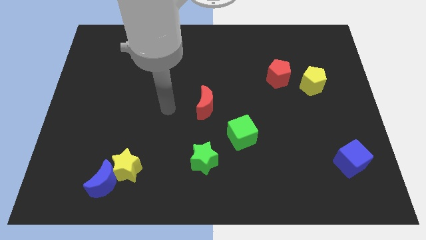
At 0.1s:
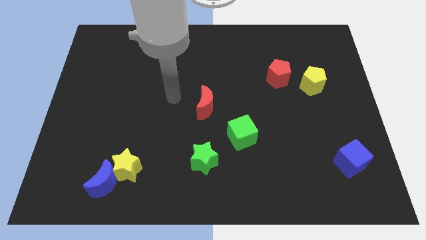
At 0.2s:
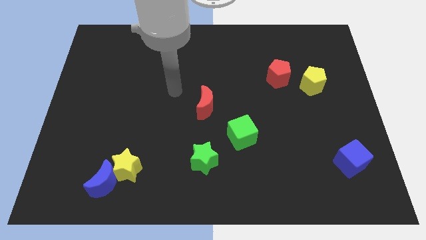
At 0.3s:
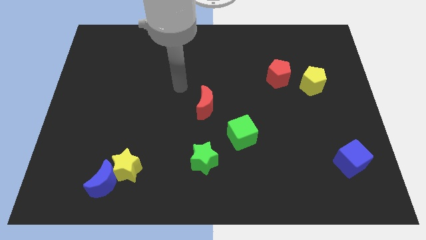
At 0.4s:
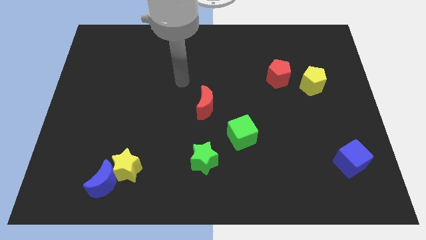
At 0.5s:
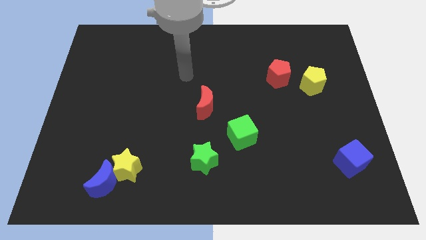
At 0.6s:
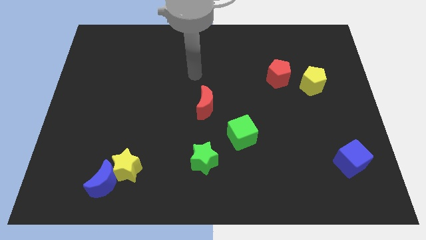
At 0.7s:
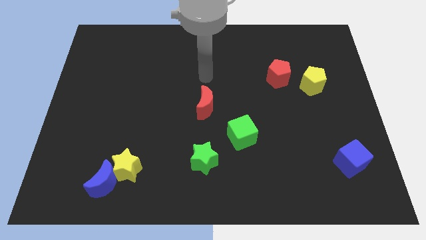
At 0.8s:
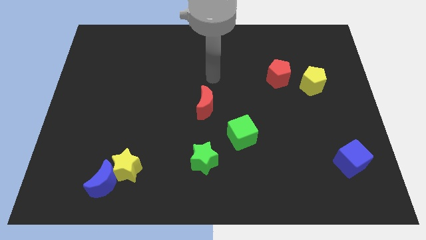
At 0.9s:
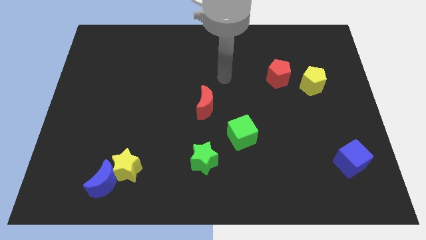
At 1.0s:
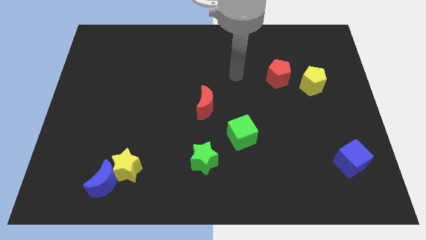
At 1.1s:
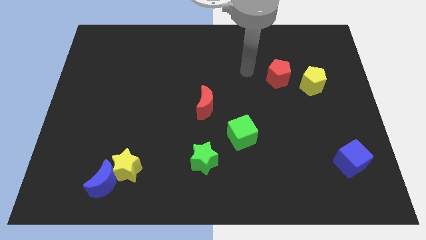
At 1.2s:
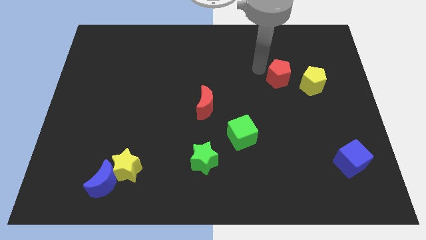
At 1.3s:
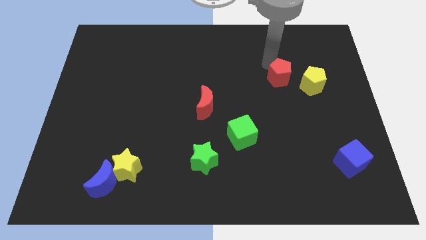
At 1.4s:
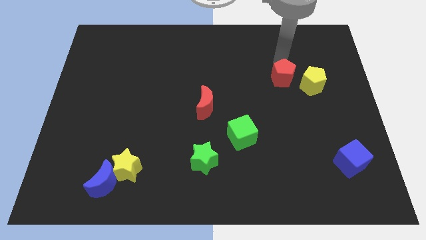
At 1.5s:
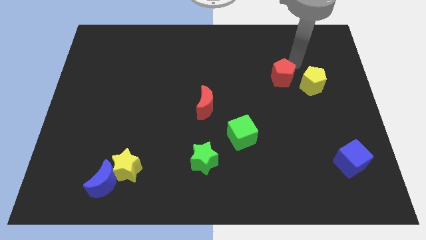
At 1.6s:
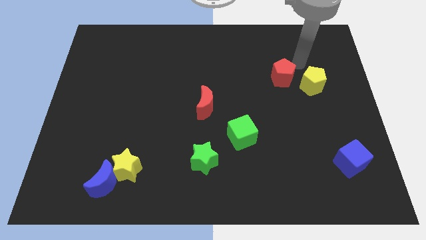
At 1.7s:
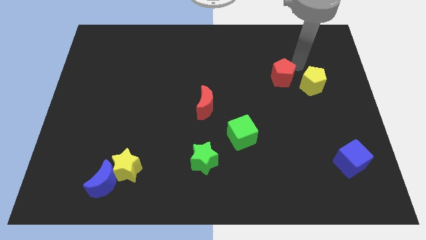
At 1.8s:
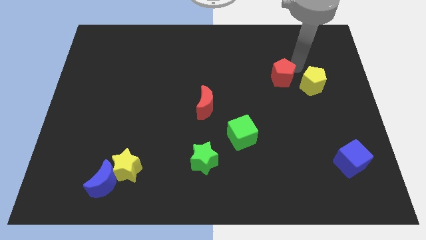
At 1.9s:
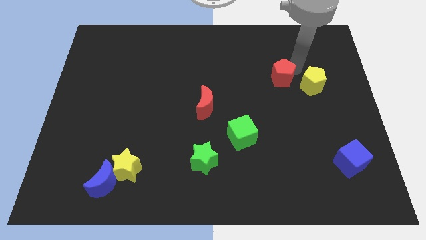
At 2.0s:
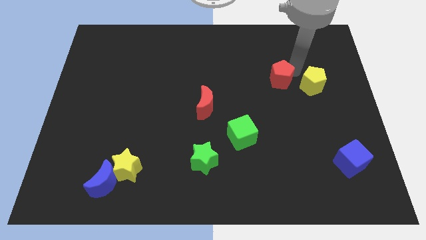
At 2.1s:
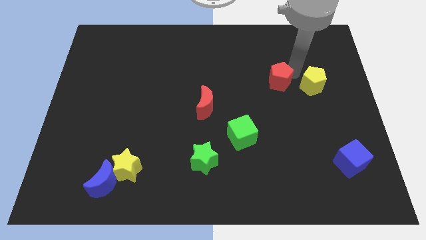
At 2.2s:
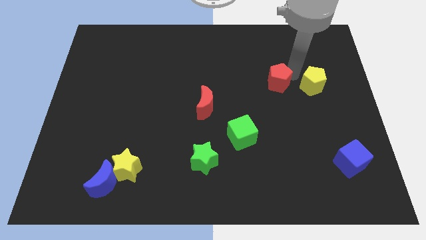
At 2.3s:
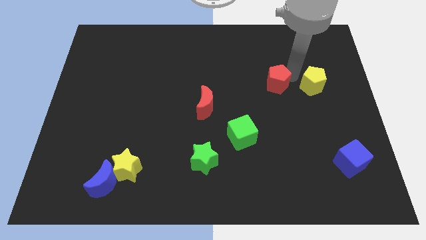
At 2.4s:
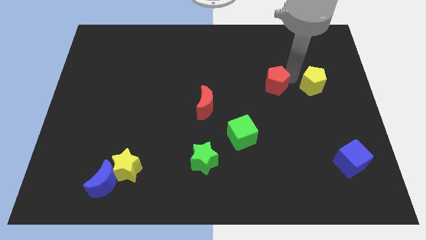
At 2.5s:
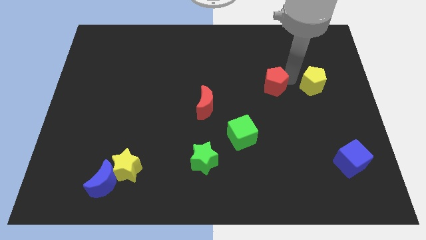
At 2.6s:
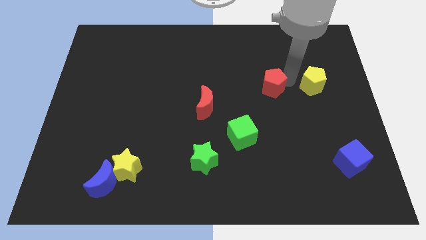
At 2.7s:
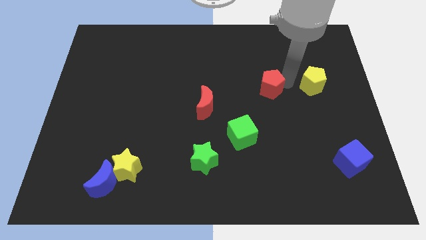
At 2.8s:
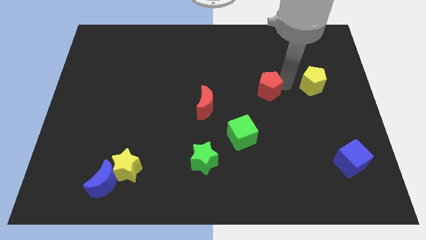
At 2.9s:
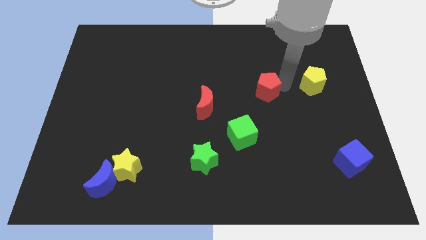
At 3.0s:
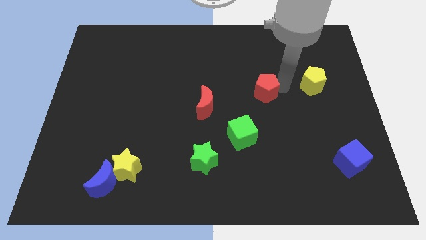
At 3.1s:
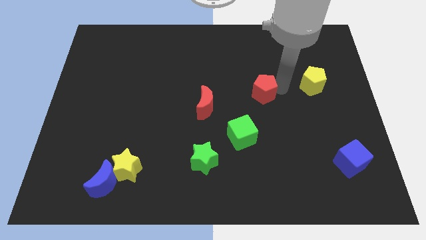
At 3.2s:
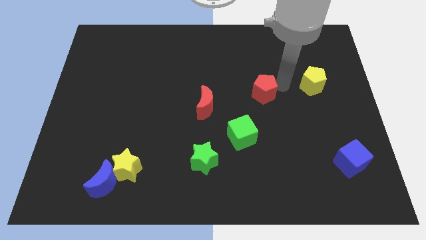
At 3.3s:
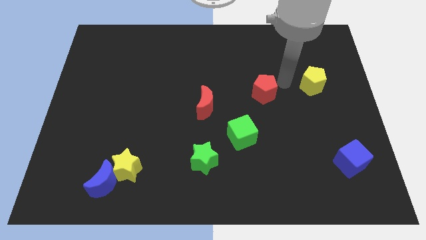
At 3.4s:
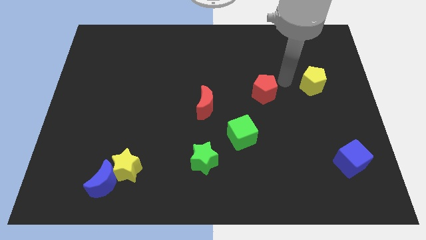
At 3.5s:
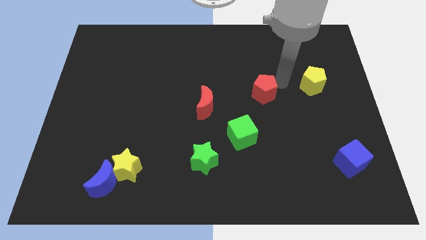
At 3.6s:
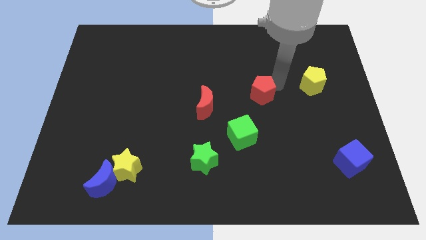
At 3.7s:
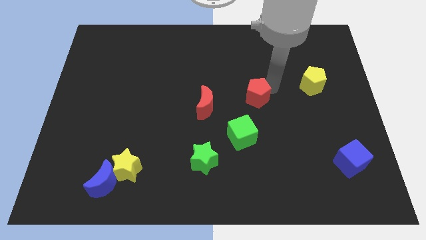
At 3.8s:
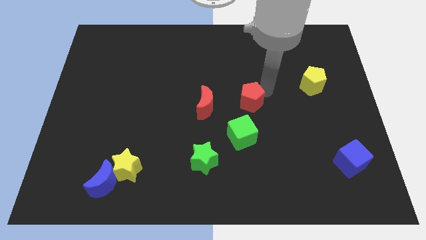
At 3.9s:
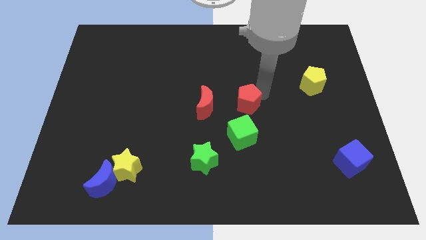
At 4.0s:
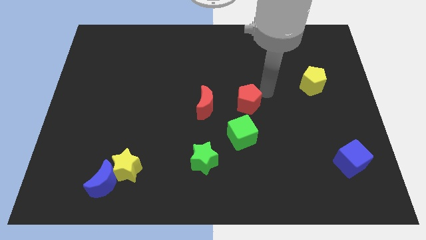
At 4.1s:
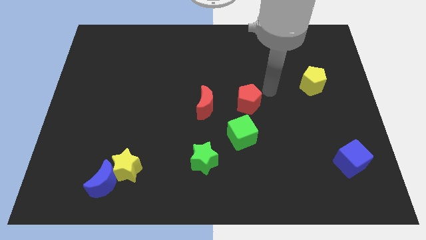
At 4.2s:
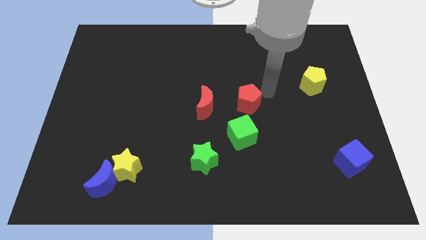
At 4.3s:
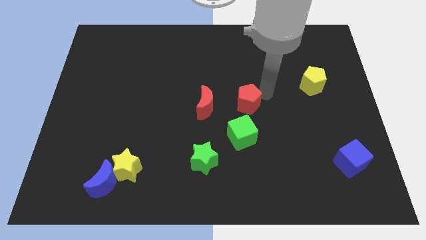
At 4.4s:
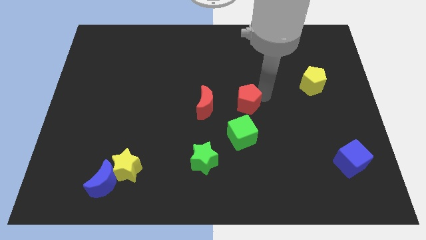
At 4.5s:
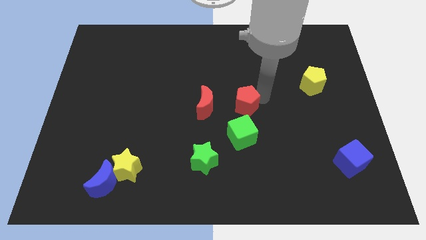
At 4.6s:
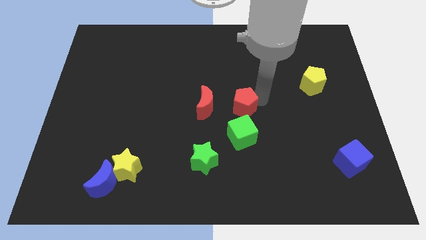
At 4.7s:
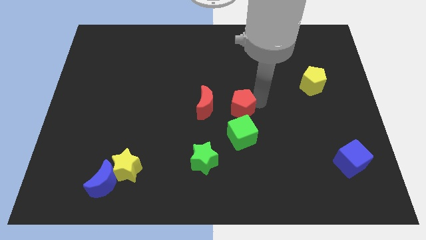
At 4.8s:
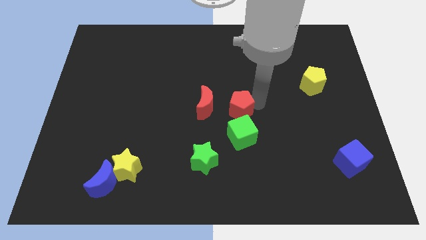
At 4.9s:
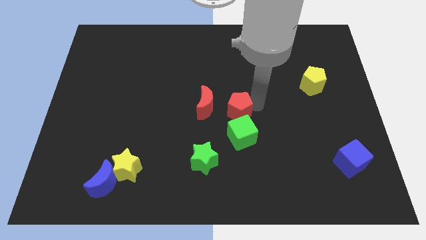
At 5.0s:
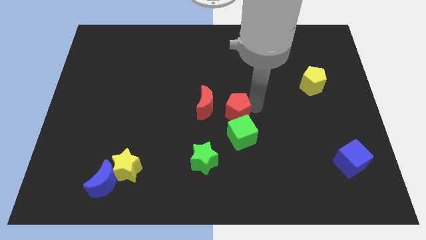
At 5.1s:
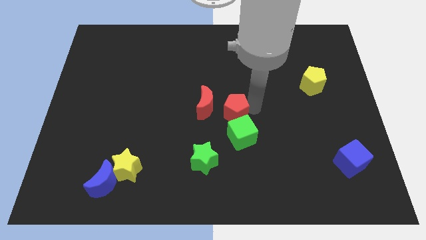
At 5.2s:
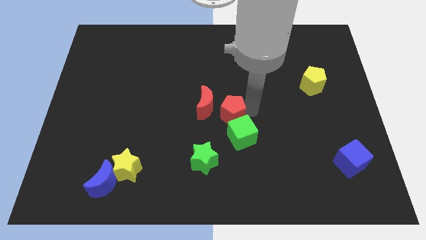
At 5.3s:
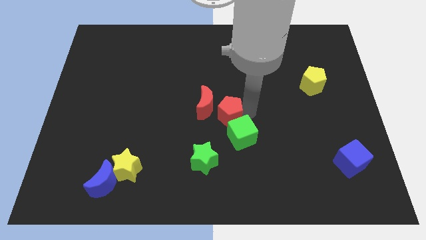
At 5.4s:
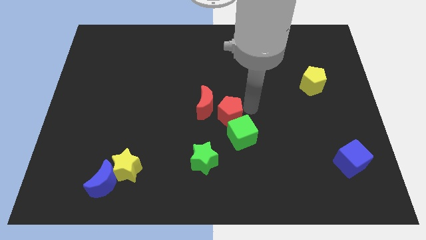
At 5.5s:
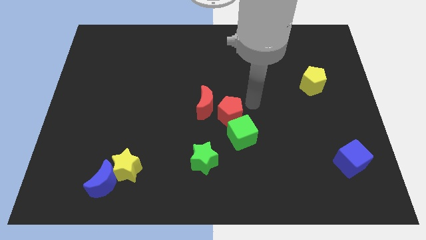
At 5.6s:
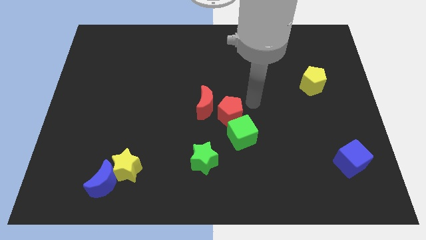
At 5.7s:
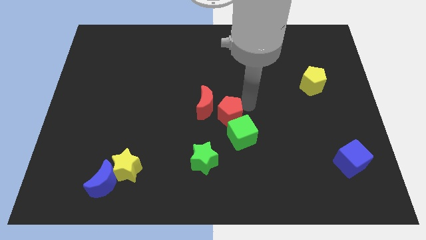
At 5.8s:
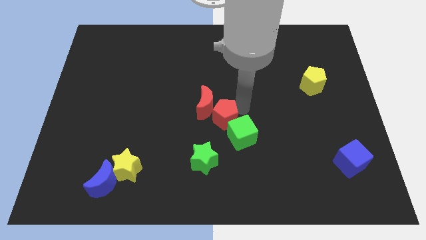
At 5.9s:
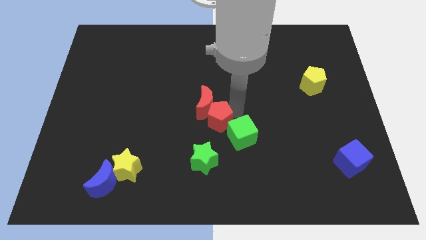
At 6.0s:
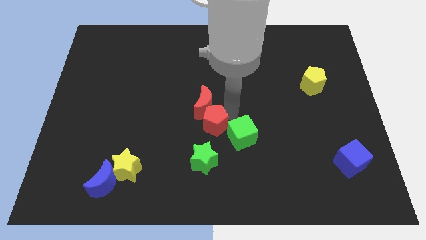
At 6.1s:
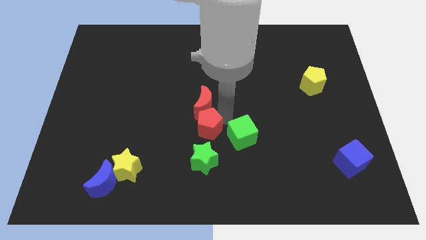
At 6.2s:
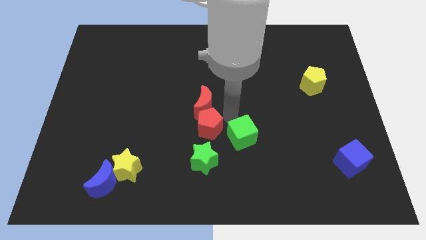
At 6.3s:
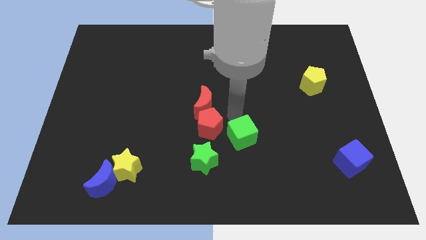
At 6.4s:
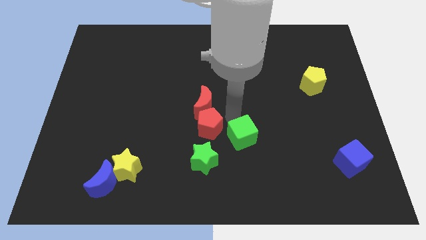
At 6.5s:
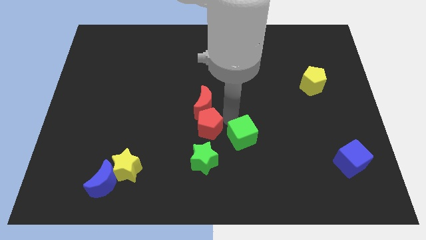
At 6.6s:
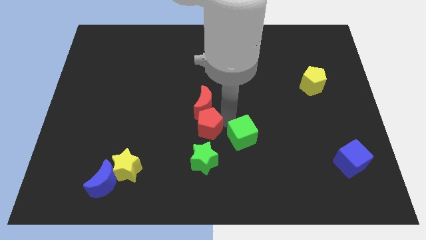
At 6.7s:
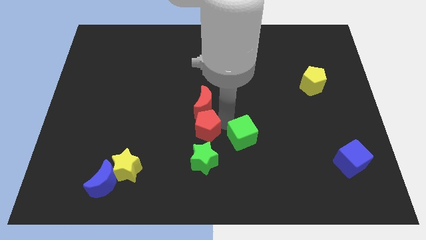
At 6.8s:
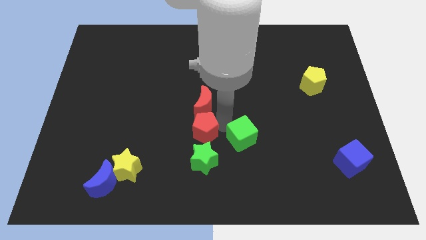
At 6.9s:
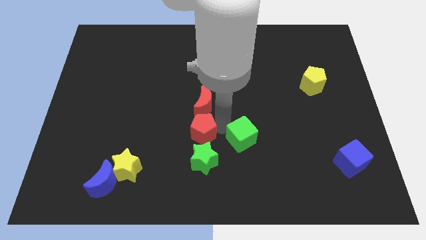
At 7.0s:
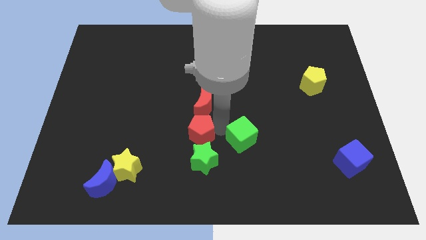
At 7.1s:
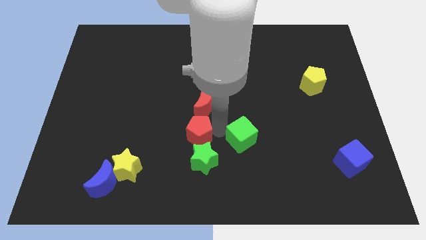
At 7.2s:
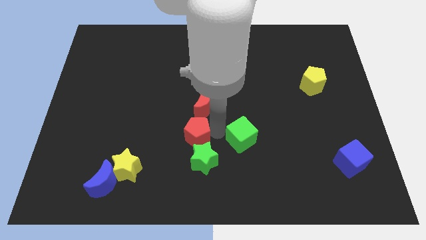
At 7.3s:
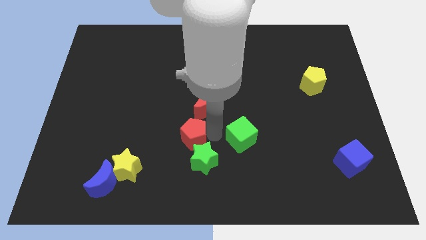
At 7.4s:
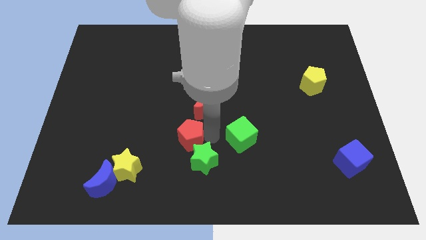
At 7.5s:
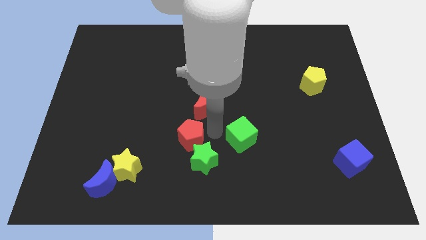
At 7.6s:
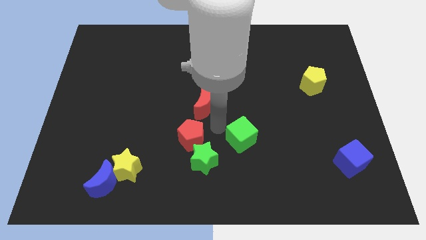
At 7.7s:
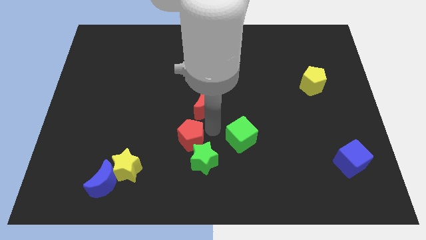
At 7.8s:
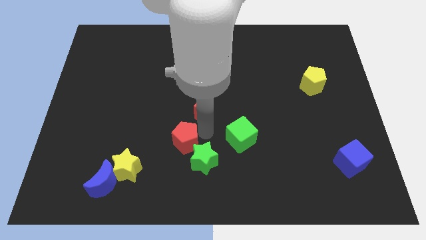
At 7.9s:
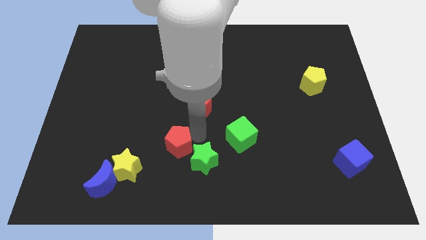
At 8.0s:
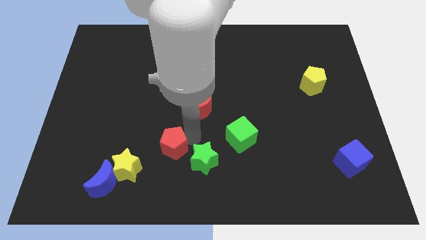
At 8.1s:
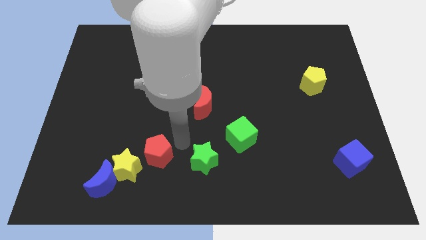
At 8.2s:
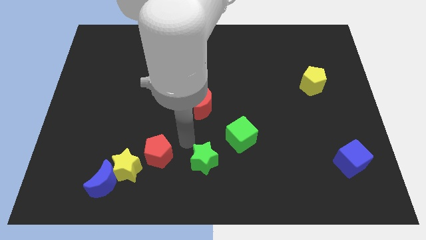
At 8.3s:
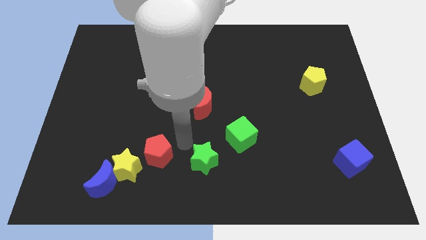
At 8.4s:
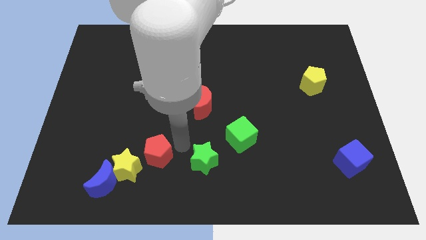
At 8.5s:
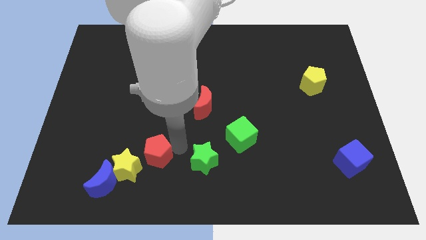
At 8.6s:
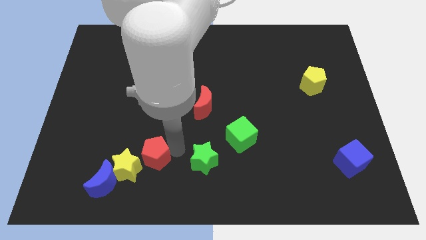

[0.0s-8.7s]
move the red pentagon close to the yellow star
